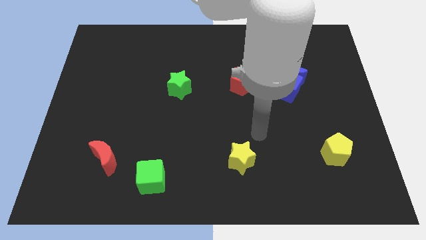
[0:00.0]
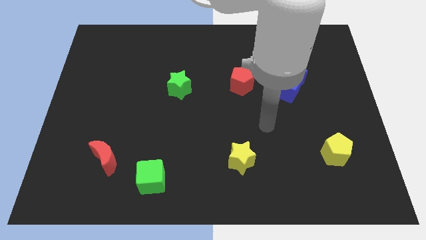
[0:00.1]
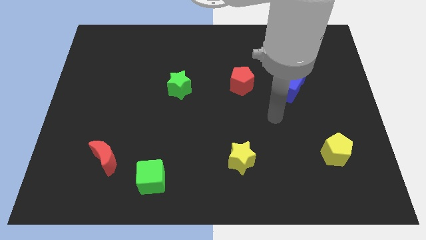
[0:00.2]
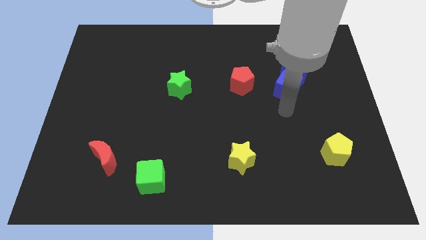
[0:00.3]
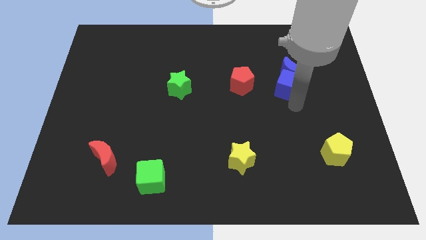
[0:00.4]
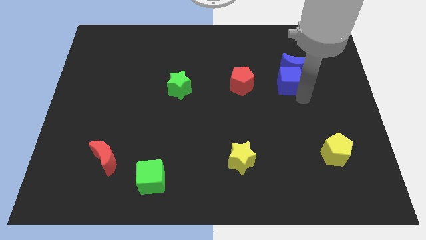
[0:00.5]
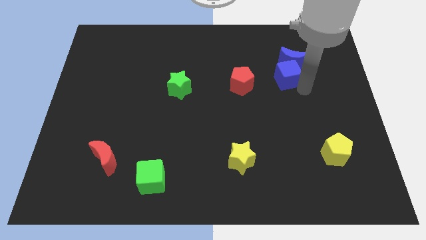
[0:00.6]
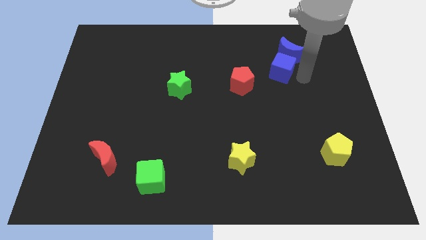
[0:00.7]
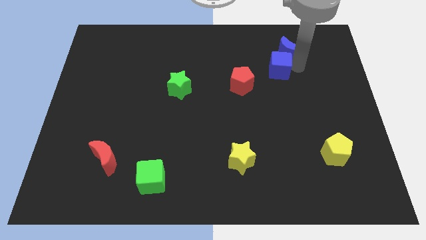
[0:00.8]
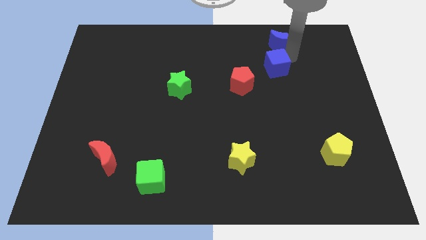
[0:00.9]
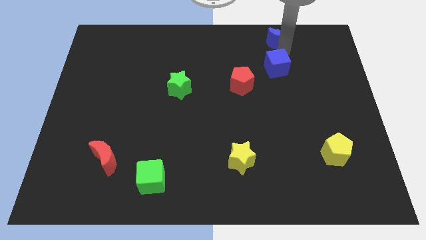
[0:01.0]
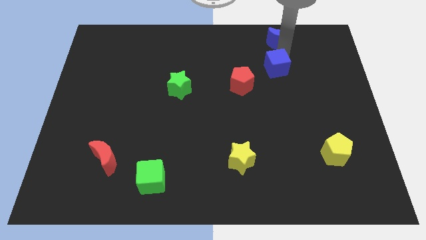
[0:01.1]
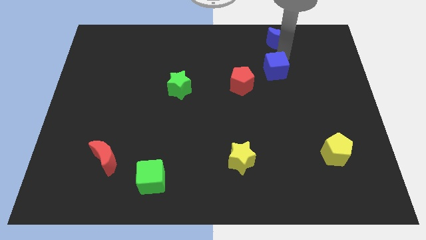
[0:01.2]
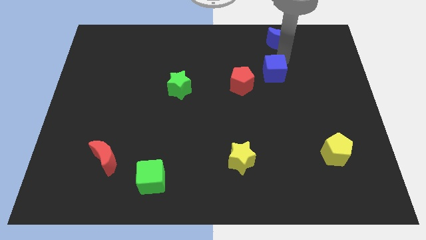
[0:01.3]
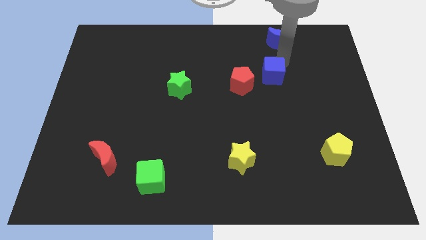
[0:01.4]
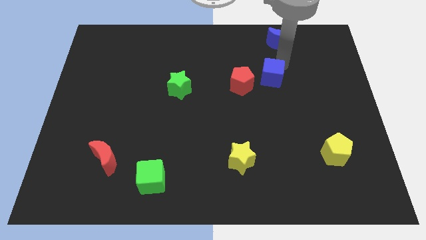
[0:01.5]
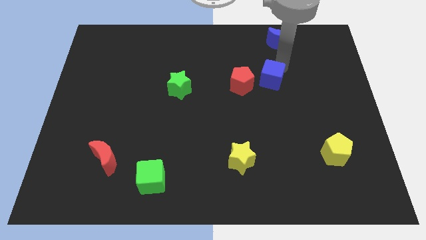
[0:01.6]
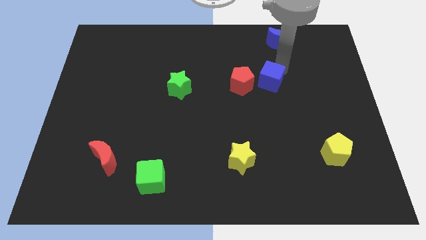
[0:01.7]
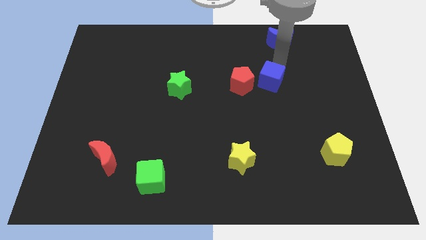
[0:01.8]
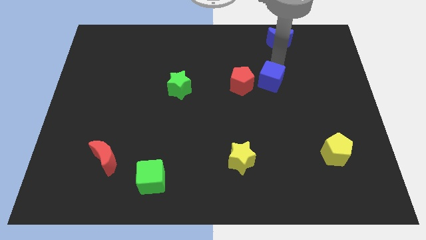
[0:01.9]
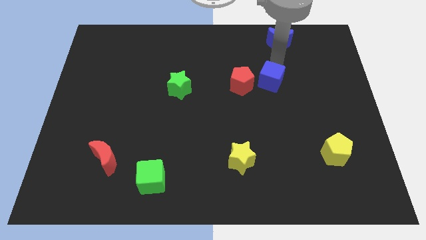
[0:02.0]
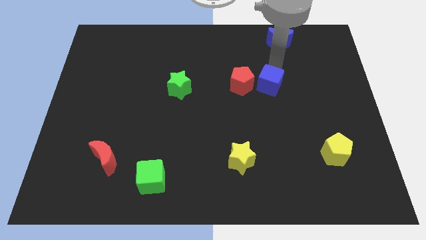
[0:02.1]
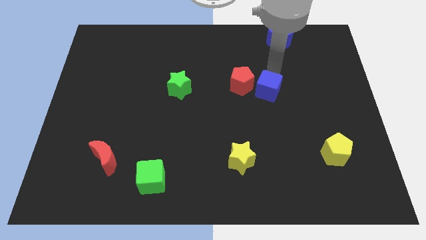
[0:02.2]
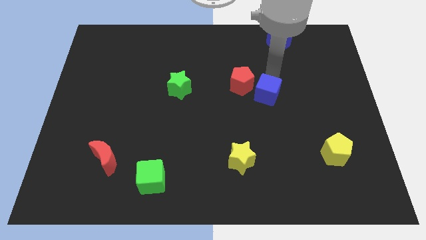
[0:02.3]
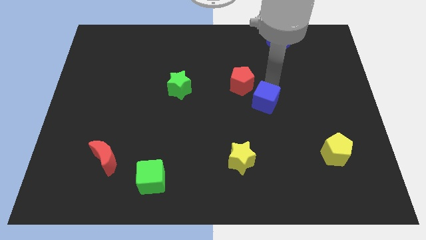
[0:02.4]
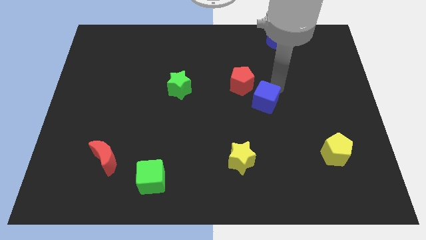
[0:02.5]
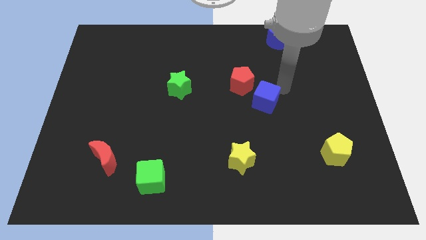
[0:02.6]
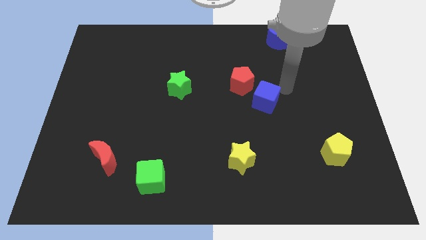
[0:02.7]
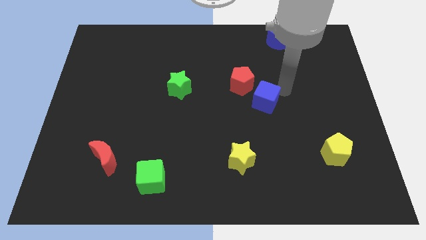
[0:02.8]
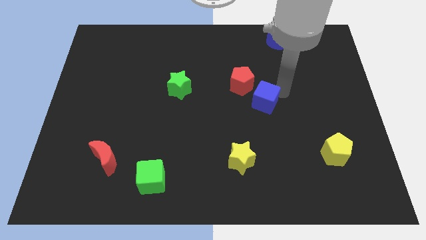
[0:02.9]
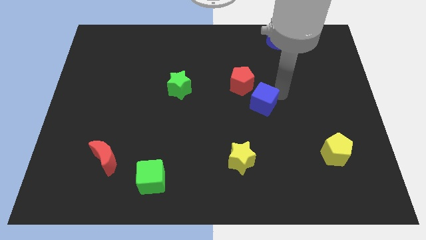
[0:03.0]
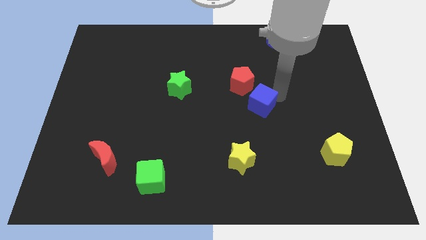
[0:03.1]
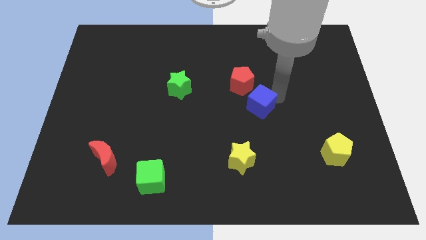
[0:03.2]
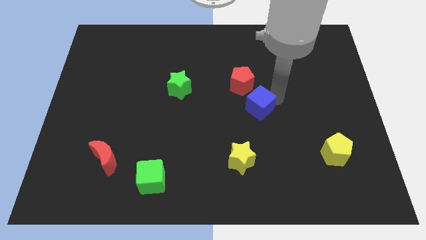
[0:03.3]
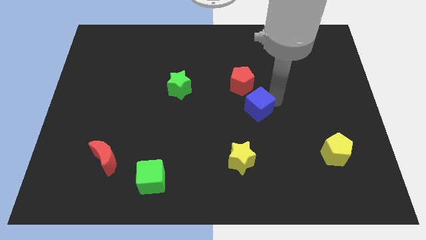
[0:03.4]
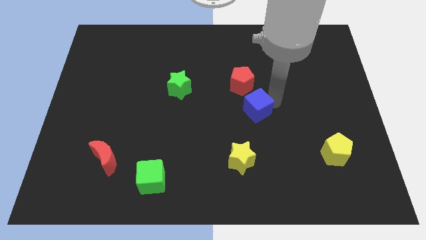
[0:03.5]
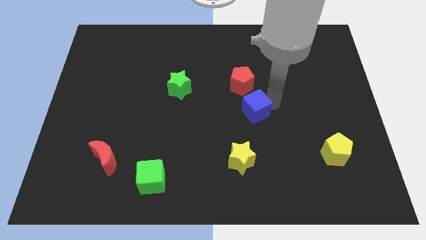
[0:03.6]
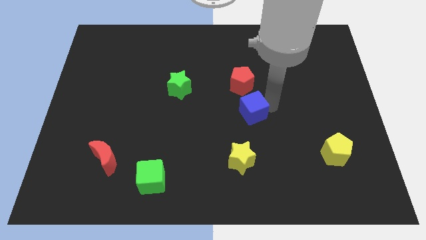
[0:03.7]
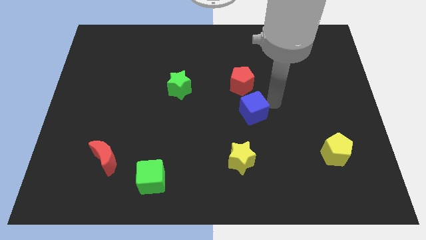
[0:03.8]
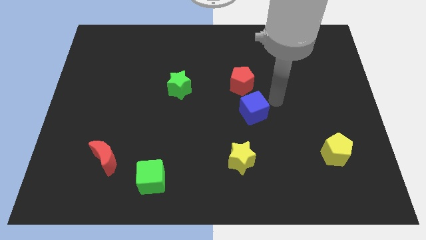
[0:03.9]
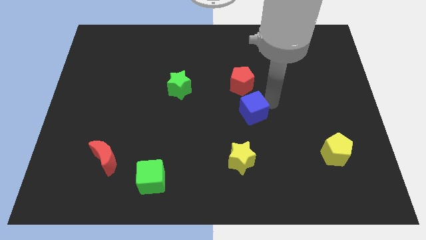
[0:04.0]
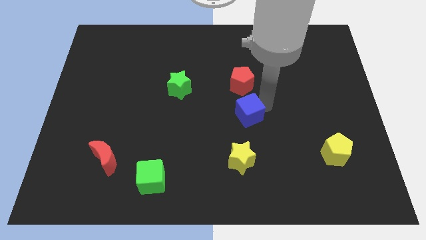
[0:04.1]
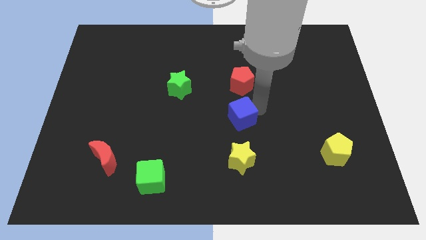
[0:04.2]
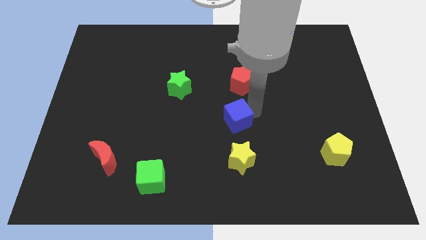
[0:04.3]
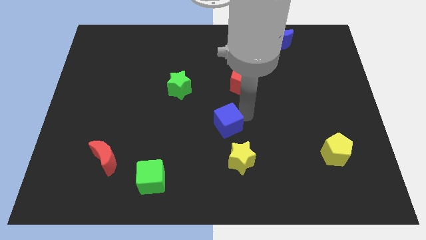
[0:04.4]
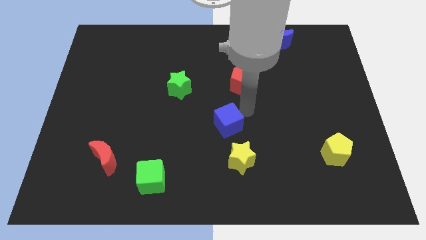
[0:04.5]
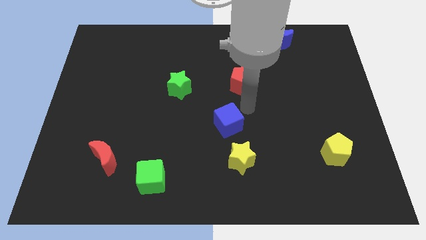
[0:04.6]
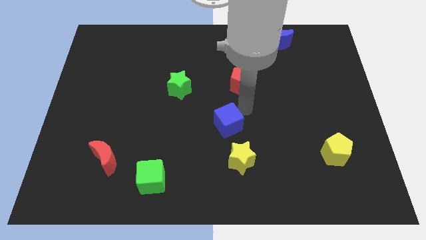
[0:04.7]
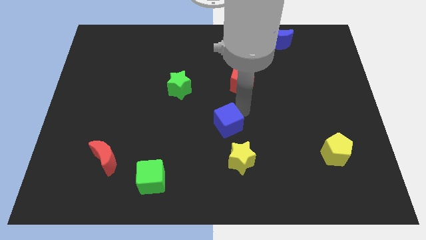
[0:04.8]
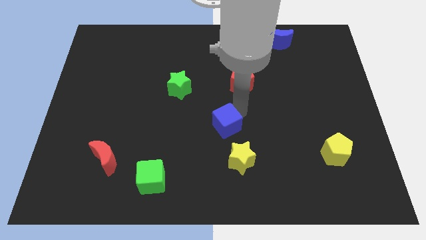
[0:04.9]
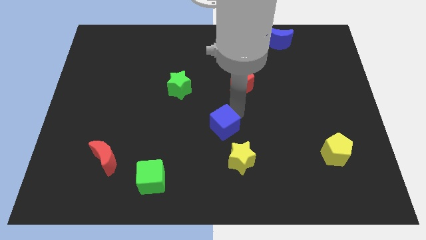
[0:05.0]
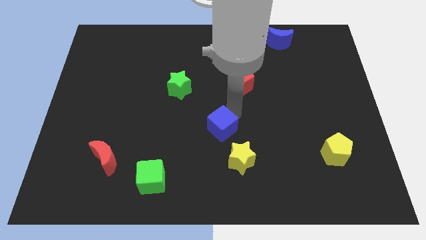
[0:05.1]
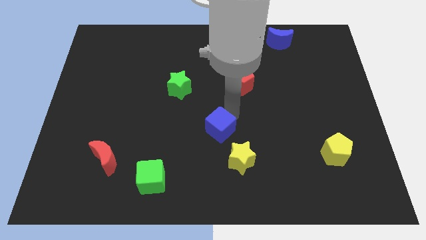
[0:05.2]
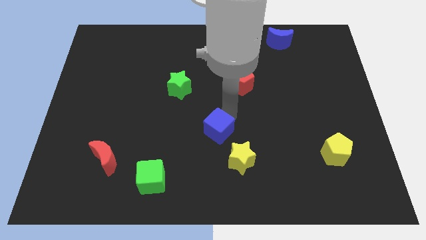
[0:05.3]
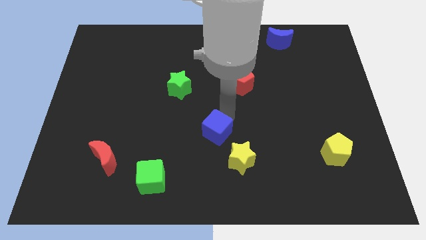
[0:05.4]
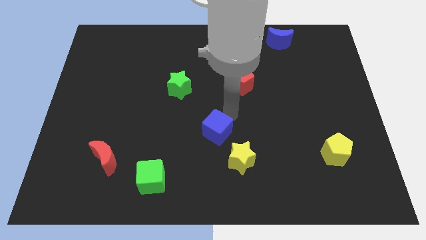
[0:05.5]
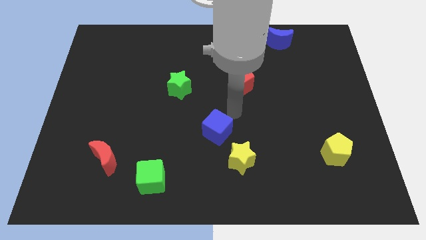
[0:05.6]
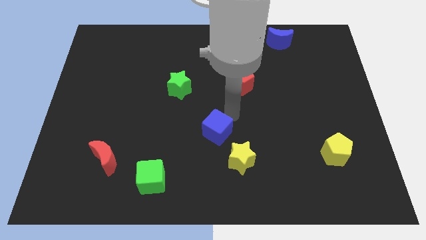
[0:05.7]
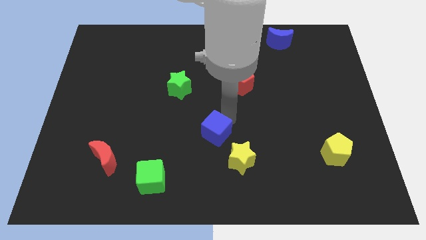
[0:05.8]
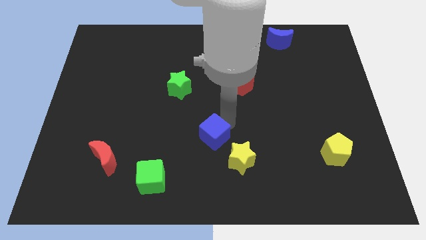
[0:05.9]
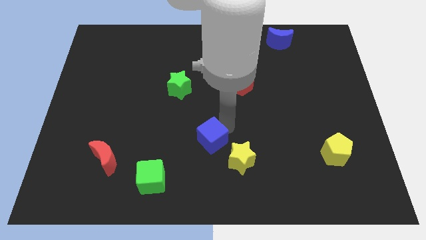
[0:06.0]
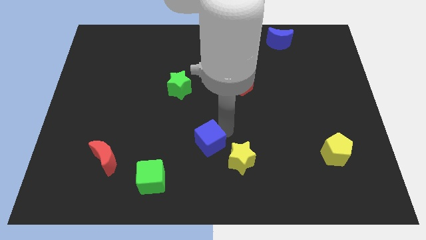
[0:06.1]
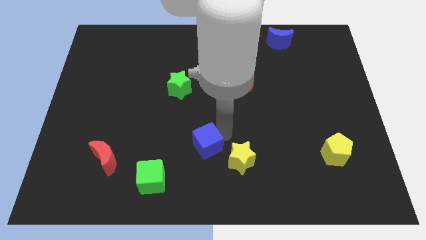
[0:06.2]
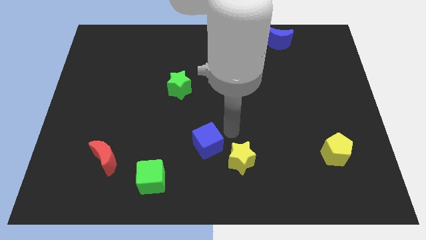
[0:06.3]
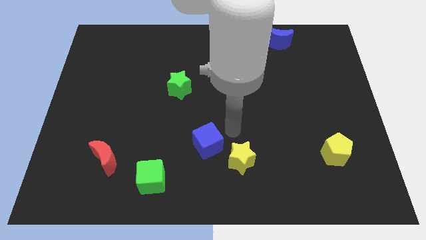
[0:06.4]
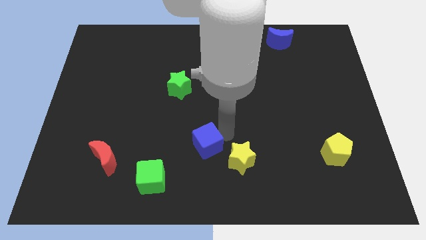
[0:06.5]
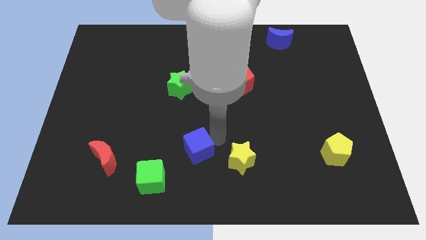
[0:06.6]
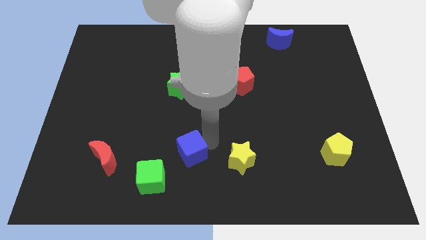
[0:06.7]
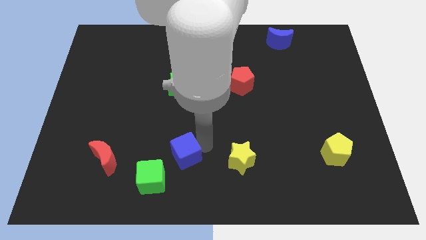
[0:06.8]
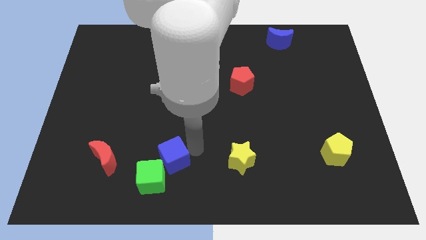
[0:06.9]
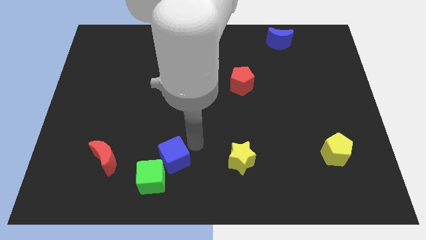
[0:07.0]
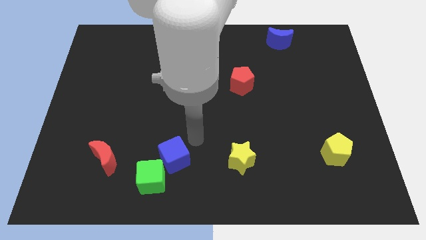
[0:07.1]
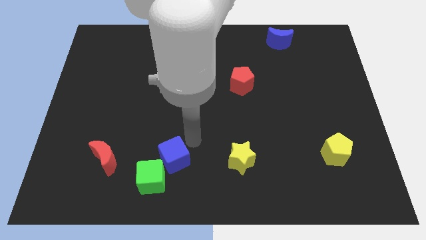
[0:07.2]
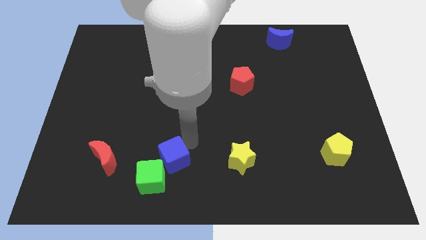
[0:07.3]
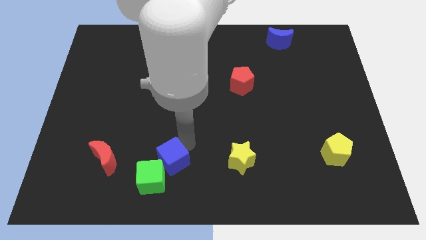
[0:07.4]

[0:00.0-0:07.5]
push the blue cube towards the green cube
